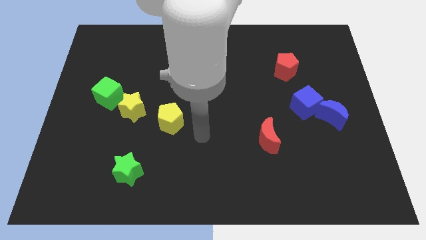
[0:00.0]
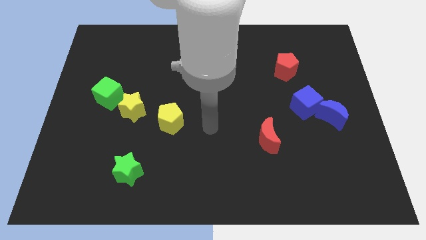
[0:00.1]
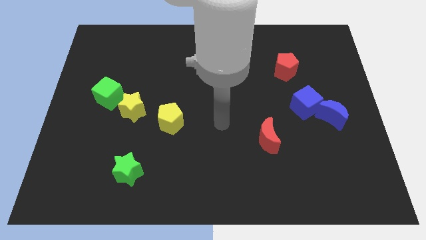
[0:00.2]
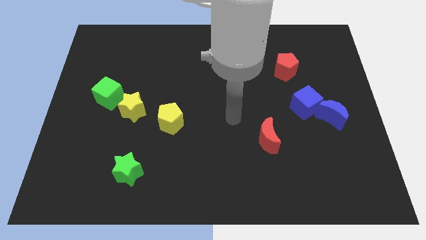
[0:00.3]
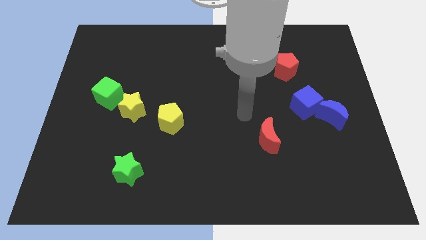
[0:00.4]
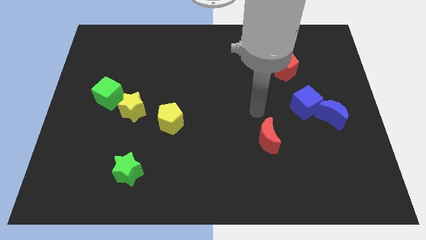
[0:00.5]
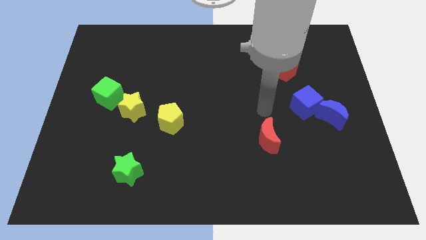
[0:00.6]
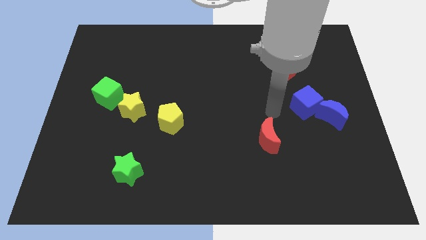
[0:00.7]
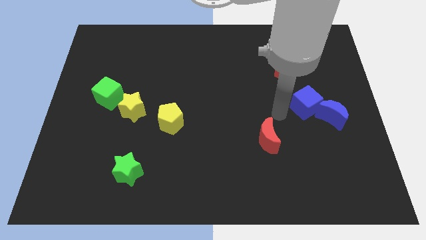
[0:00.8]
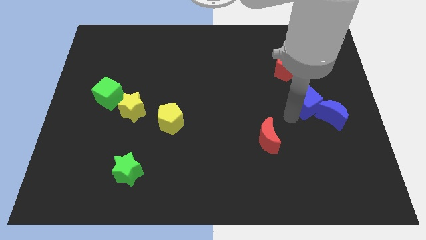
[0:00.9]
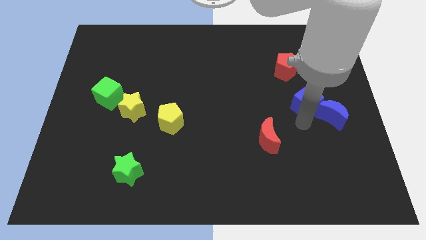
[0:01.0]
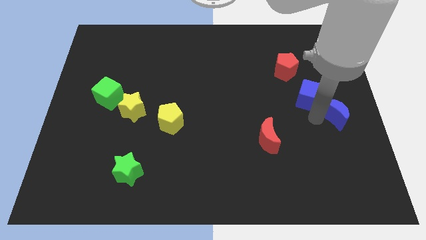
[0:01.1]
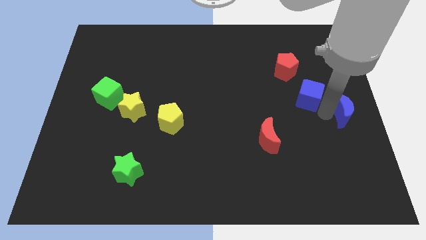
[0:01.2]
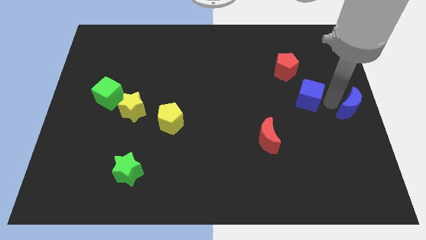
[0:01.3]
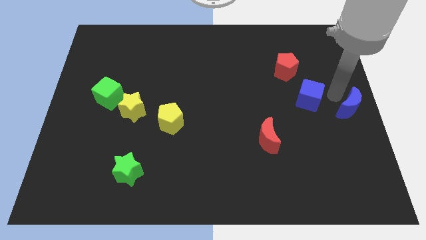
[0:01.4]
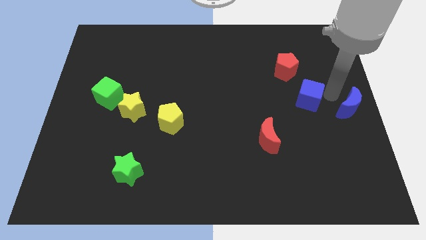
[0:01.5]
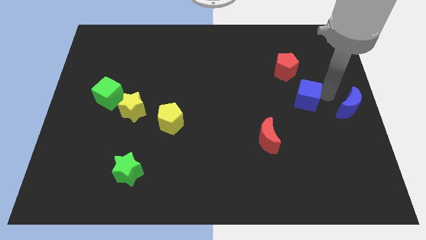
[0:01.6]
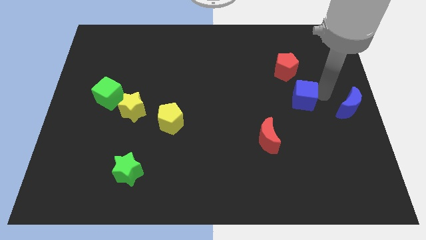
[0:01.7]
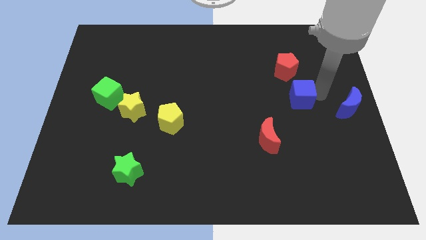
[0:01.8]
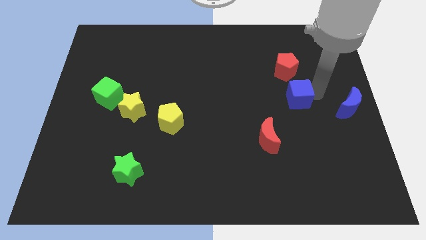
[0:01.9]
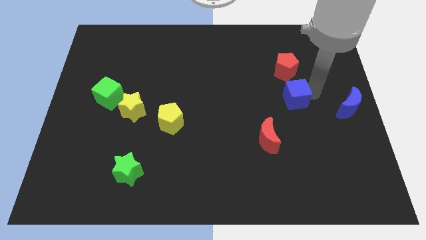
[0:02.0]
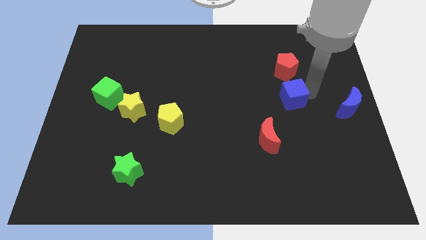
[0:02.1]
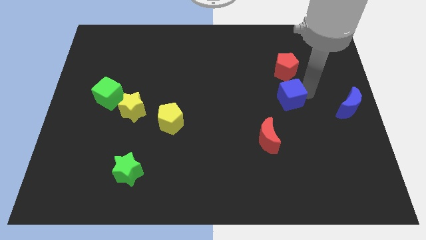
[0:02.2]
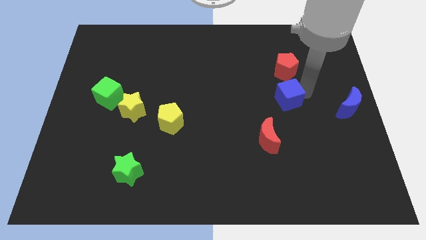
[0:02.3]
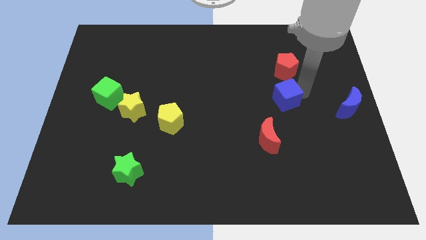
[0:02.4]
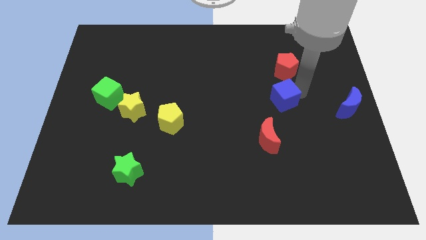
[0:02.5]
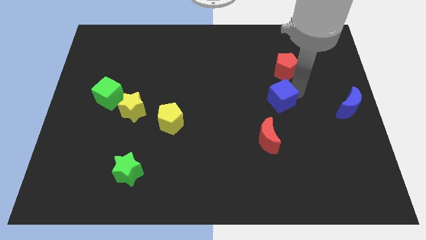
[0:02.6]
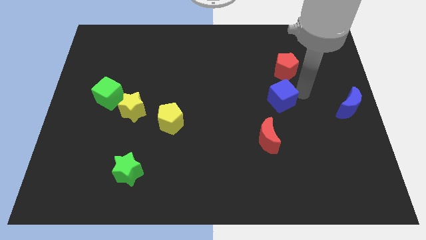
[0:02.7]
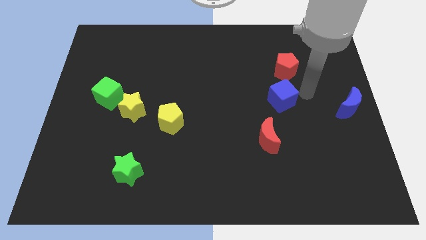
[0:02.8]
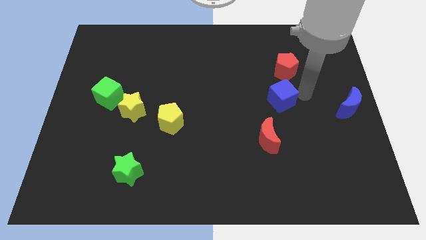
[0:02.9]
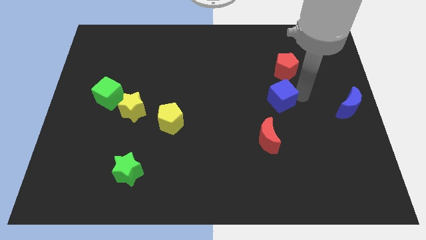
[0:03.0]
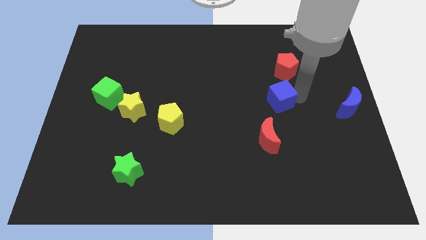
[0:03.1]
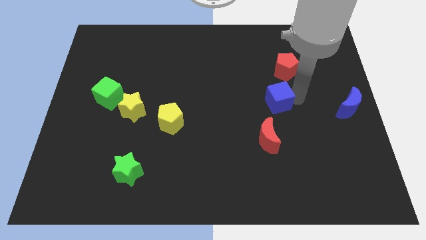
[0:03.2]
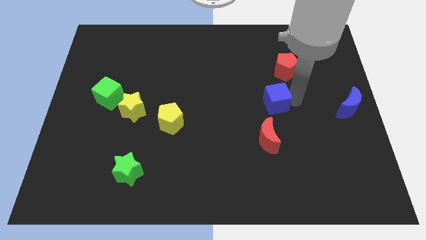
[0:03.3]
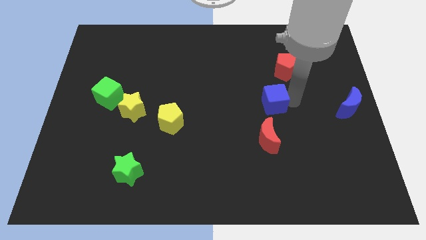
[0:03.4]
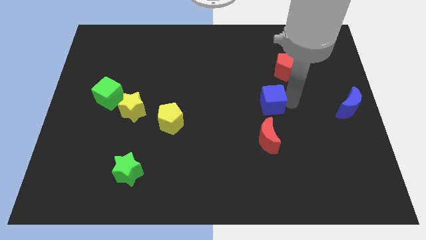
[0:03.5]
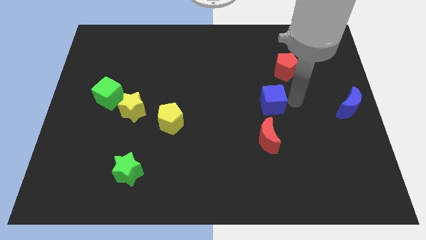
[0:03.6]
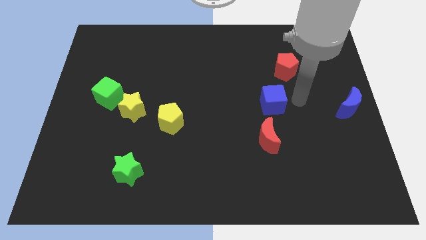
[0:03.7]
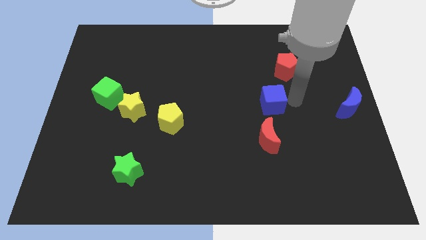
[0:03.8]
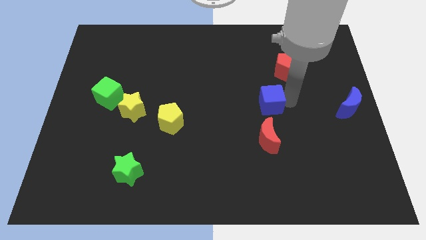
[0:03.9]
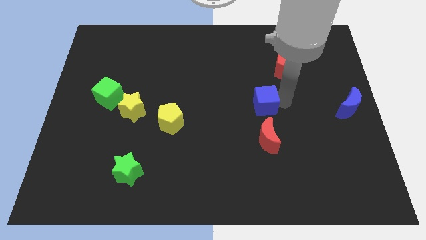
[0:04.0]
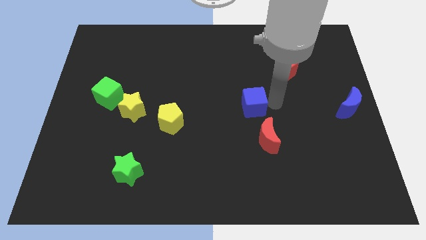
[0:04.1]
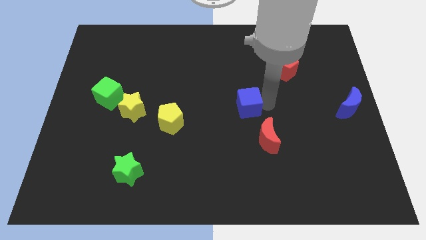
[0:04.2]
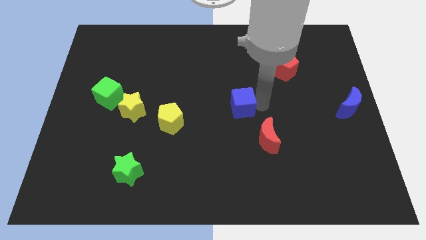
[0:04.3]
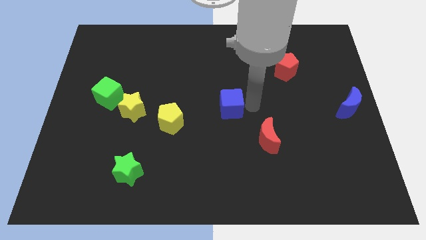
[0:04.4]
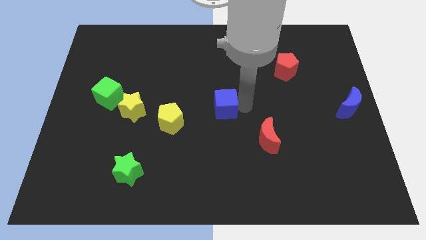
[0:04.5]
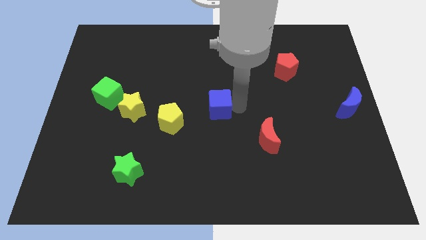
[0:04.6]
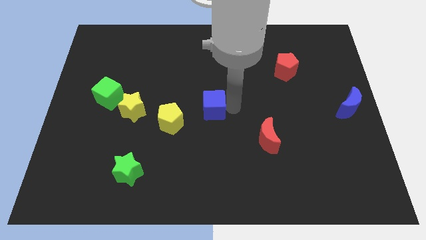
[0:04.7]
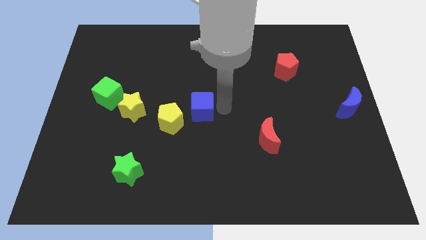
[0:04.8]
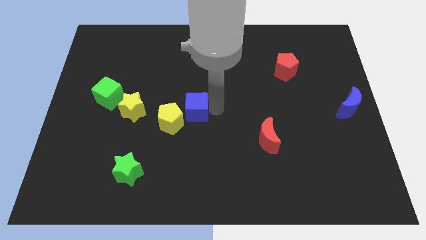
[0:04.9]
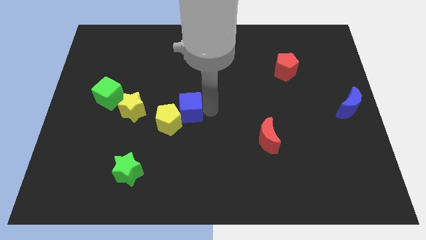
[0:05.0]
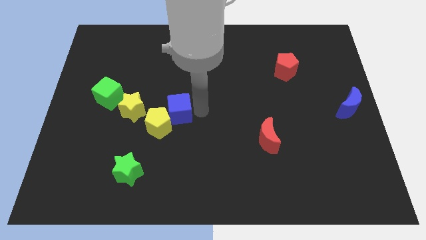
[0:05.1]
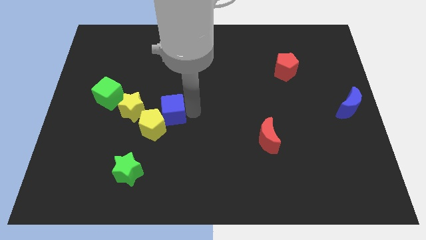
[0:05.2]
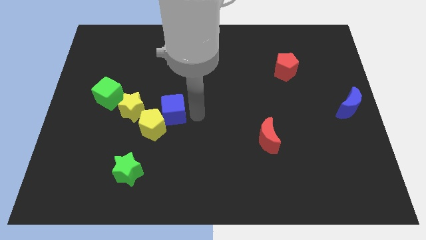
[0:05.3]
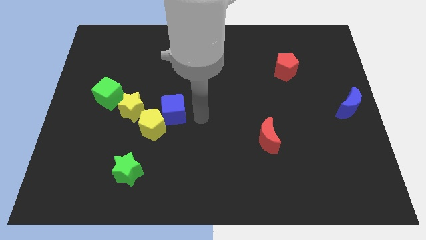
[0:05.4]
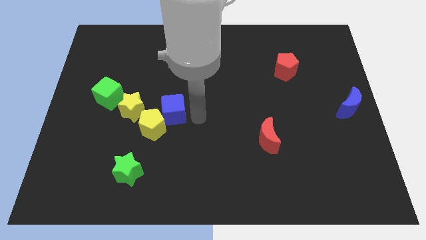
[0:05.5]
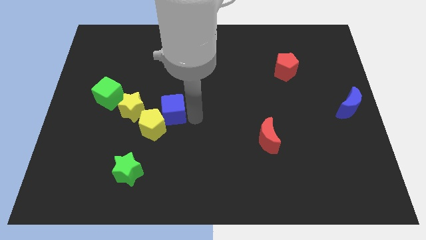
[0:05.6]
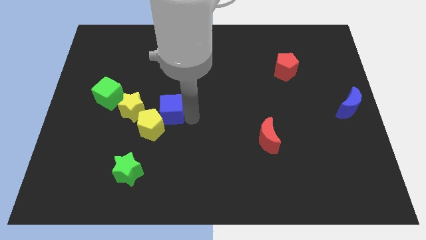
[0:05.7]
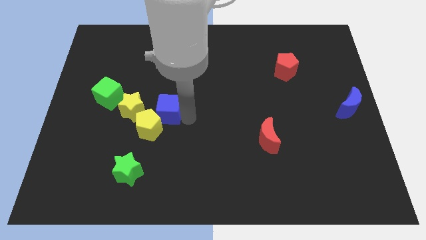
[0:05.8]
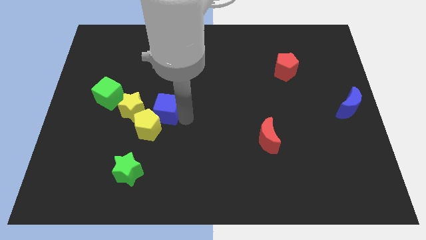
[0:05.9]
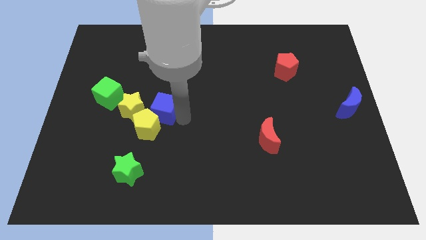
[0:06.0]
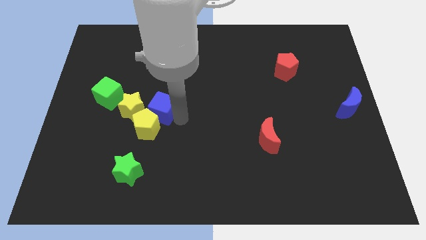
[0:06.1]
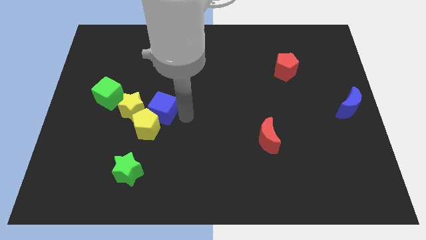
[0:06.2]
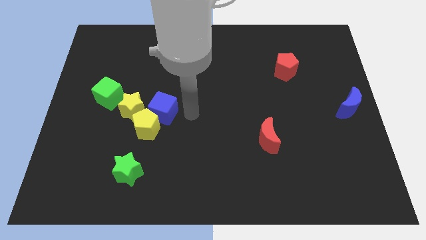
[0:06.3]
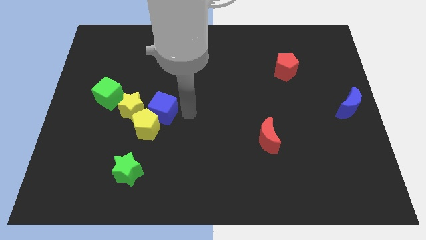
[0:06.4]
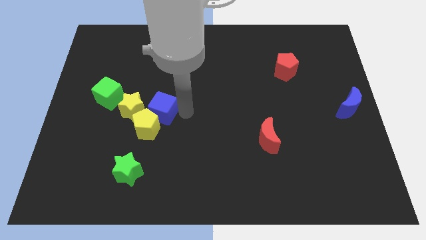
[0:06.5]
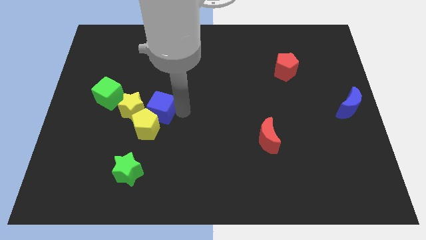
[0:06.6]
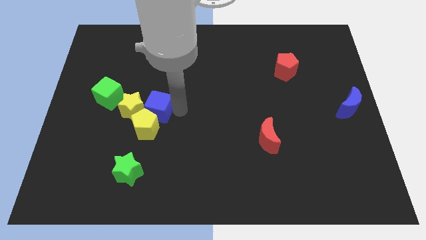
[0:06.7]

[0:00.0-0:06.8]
slide the blue cube next to the yellow star
